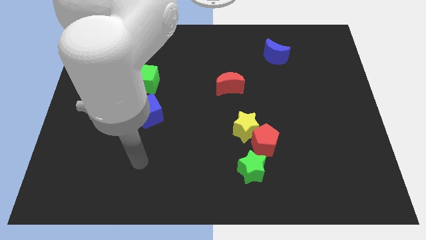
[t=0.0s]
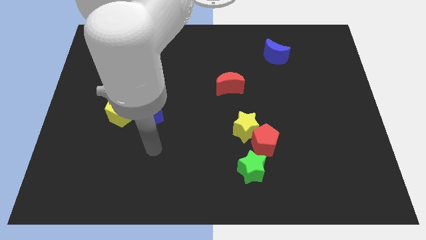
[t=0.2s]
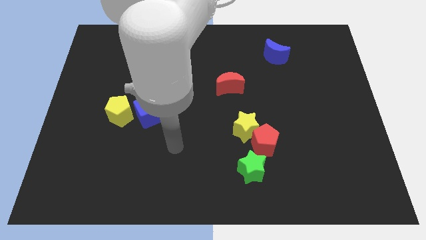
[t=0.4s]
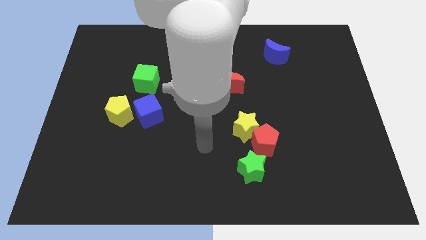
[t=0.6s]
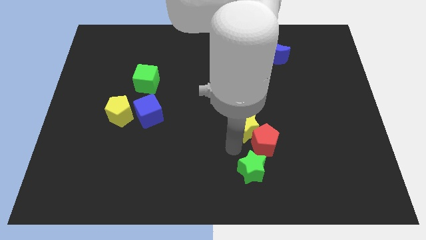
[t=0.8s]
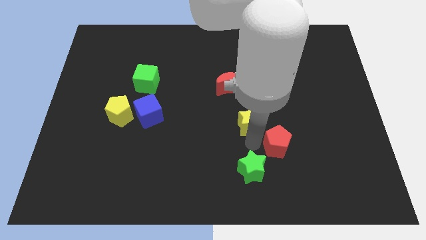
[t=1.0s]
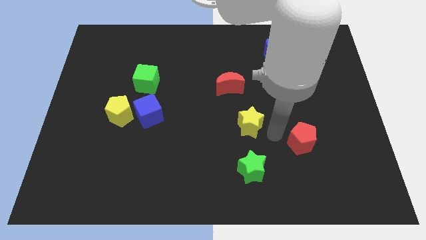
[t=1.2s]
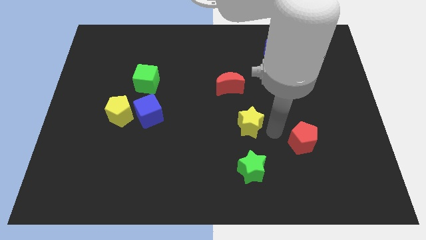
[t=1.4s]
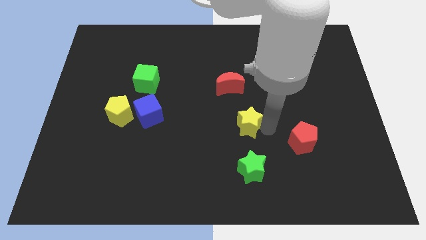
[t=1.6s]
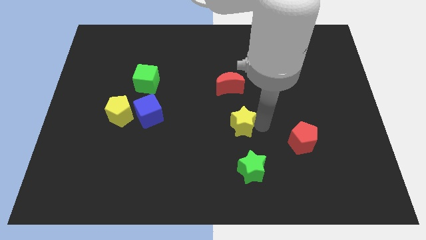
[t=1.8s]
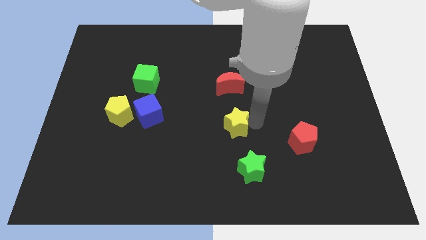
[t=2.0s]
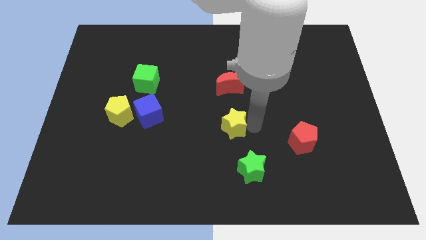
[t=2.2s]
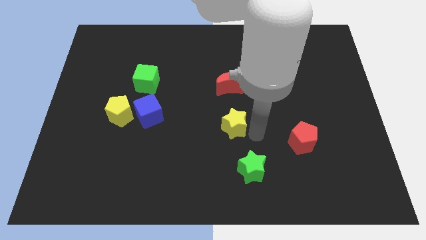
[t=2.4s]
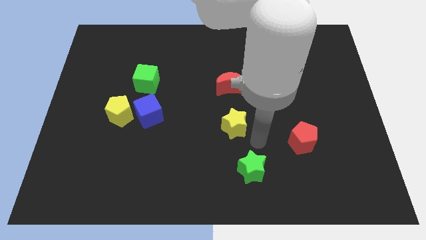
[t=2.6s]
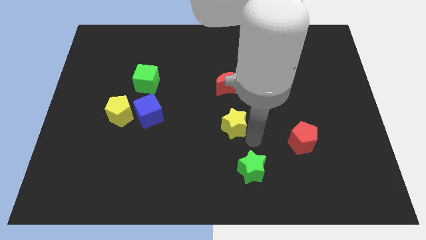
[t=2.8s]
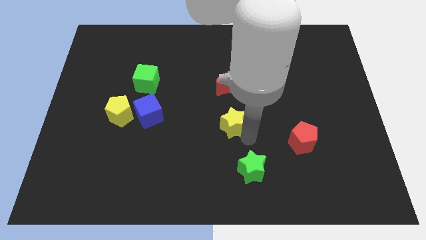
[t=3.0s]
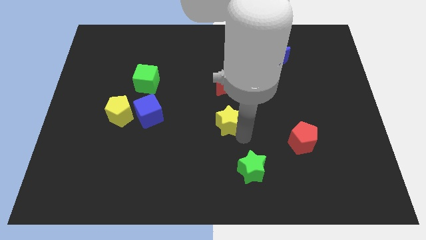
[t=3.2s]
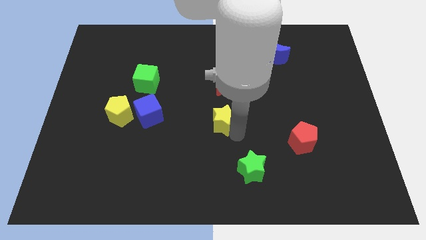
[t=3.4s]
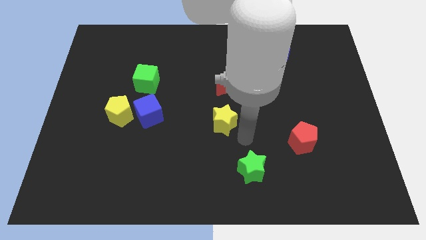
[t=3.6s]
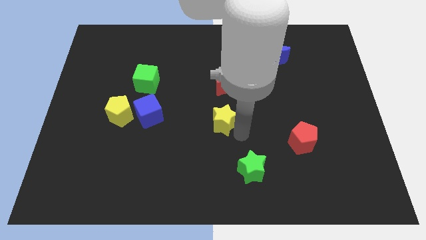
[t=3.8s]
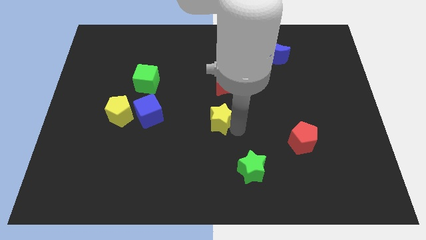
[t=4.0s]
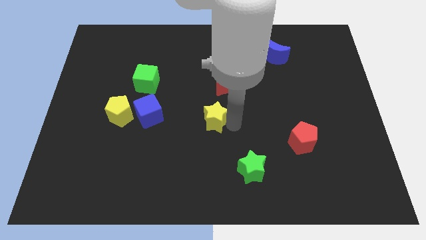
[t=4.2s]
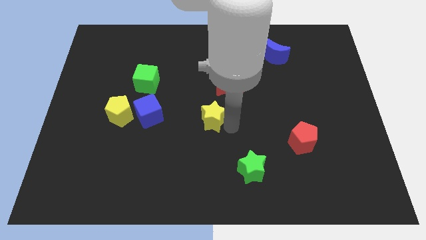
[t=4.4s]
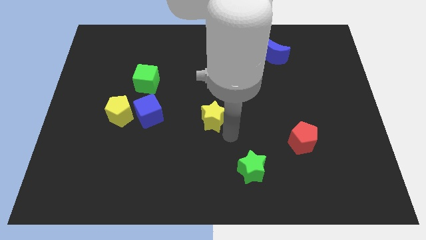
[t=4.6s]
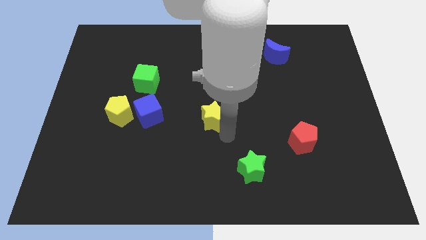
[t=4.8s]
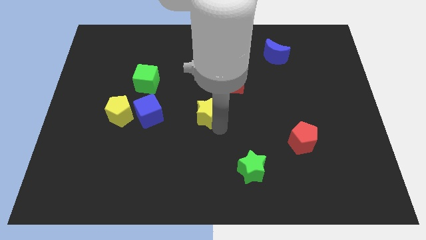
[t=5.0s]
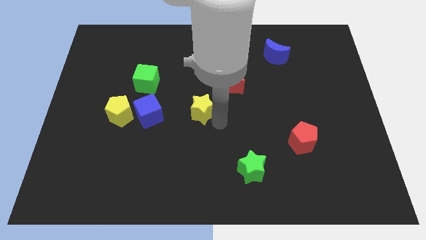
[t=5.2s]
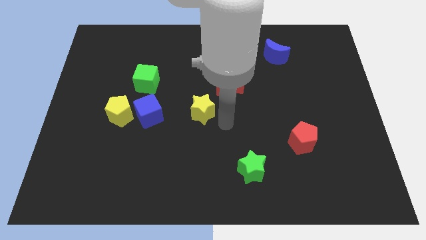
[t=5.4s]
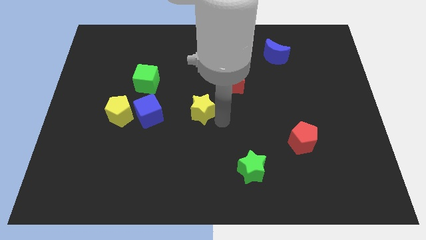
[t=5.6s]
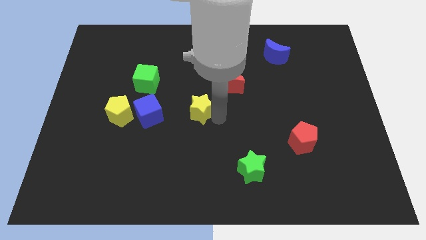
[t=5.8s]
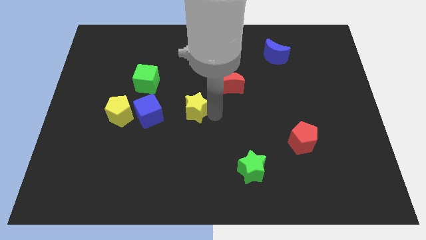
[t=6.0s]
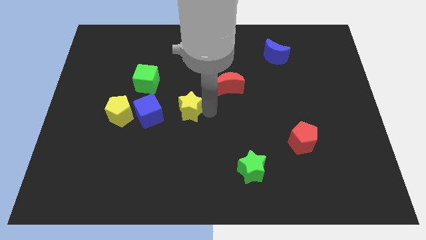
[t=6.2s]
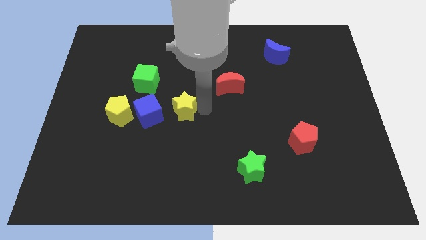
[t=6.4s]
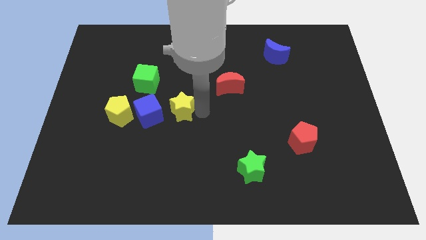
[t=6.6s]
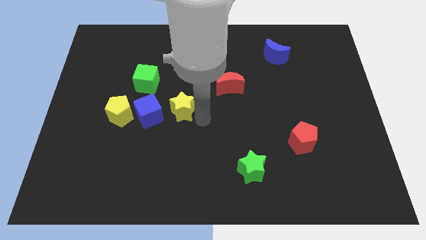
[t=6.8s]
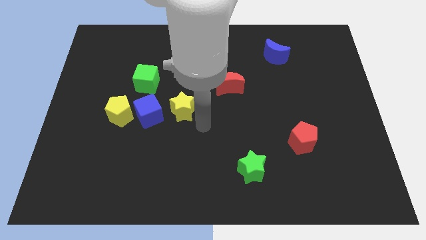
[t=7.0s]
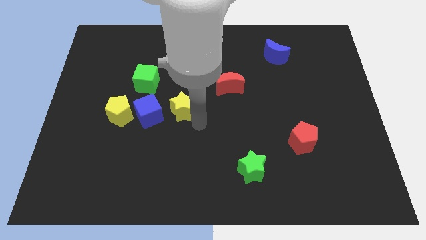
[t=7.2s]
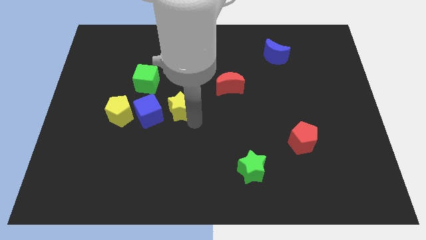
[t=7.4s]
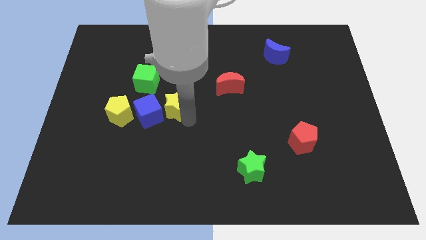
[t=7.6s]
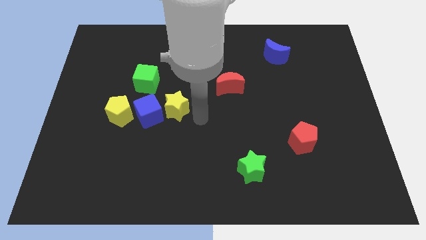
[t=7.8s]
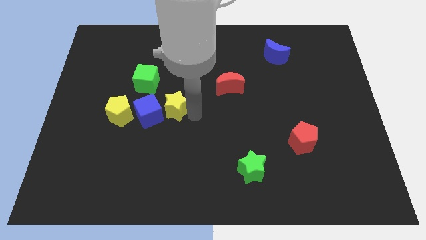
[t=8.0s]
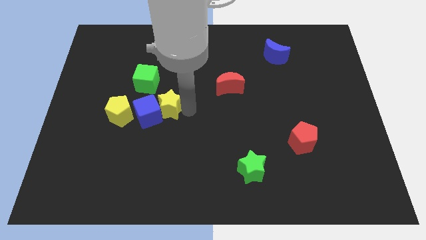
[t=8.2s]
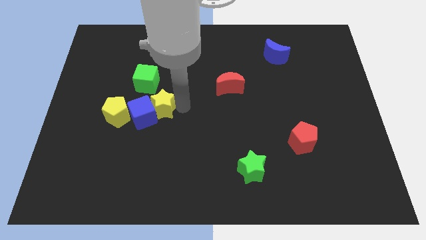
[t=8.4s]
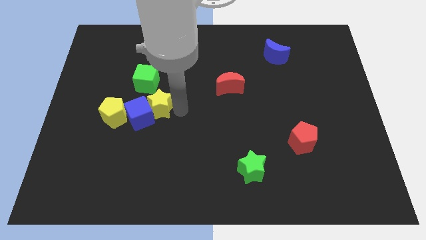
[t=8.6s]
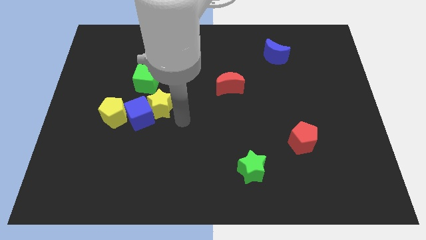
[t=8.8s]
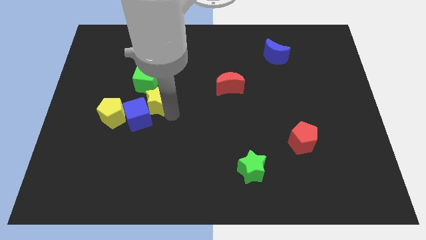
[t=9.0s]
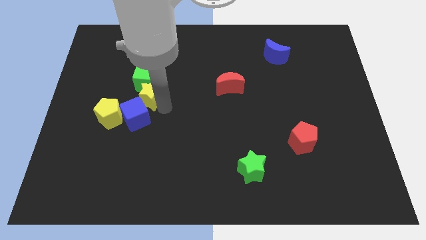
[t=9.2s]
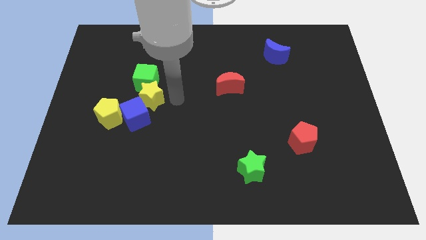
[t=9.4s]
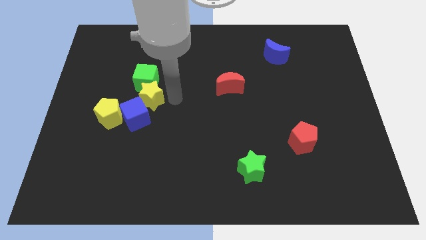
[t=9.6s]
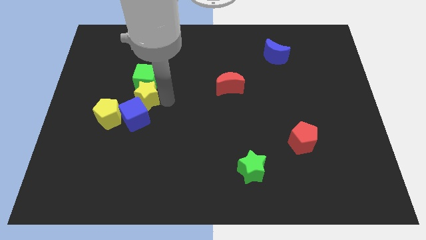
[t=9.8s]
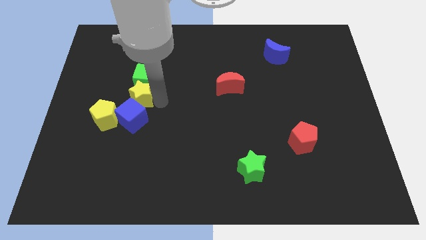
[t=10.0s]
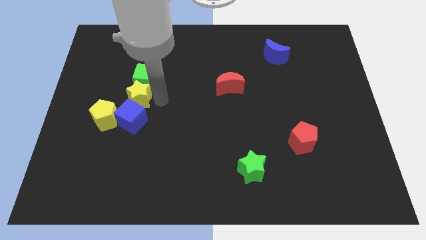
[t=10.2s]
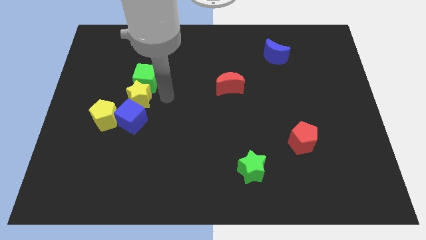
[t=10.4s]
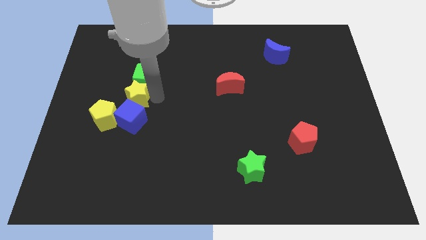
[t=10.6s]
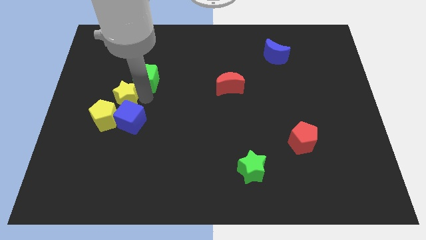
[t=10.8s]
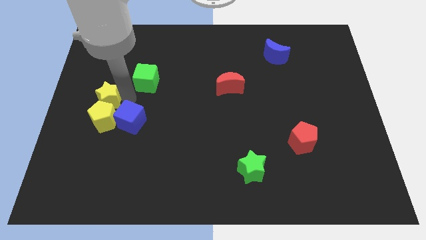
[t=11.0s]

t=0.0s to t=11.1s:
move the yellow star to the left side

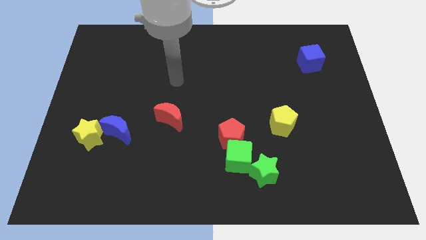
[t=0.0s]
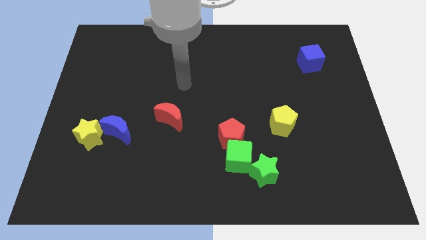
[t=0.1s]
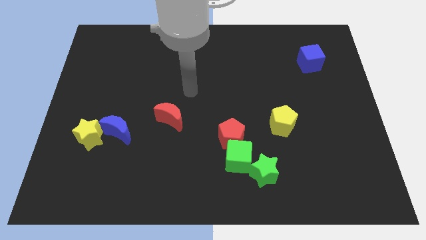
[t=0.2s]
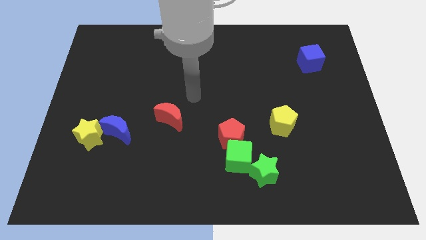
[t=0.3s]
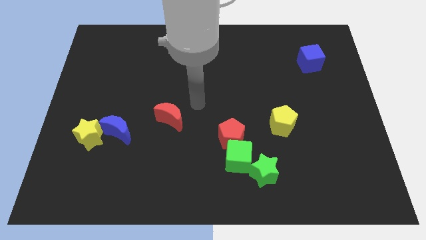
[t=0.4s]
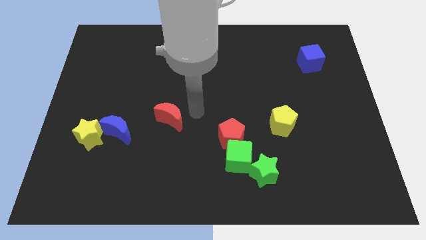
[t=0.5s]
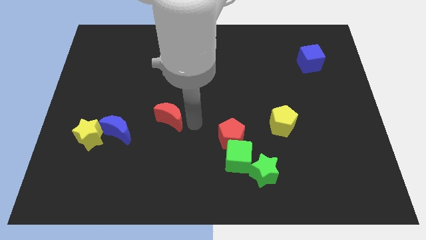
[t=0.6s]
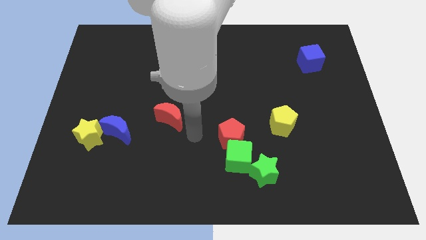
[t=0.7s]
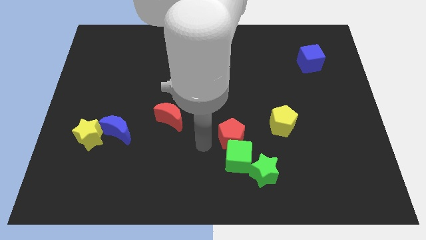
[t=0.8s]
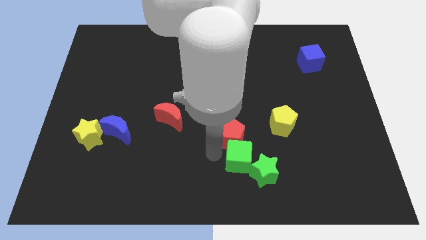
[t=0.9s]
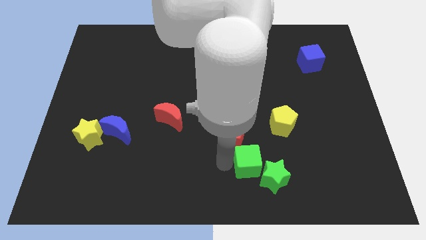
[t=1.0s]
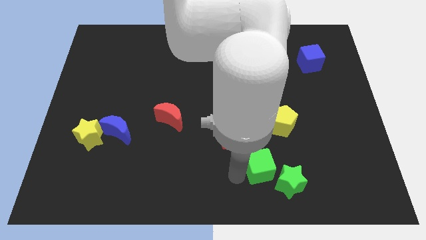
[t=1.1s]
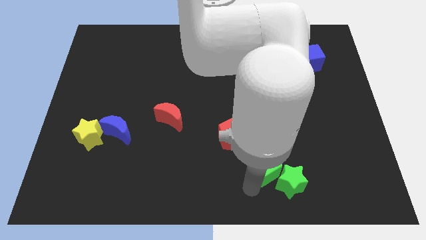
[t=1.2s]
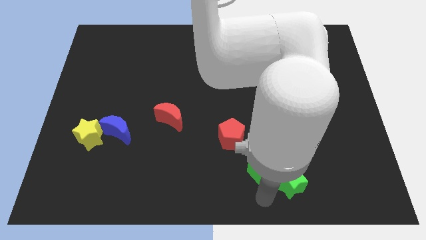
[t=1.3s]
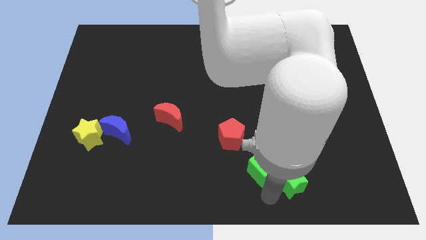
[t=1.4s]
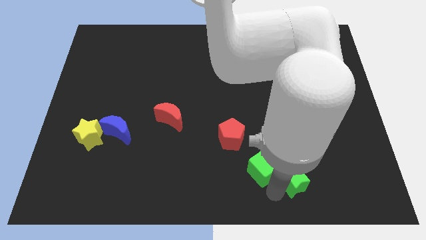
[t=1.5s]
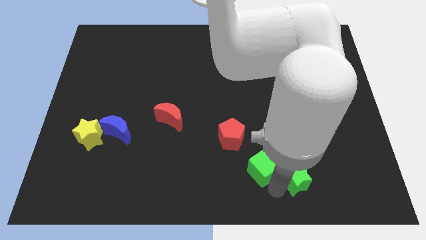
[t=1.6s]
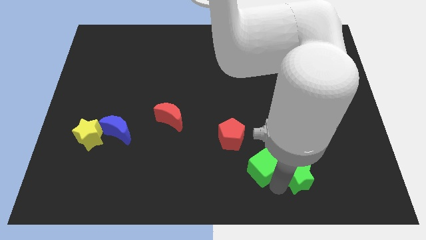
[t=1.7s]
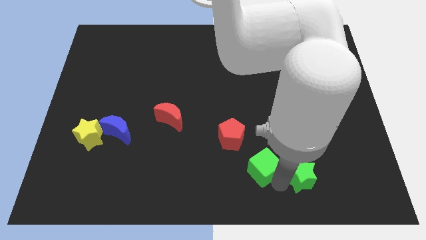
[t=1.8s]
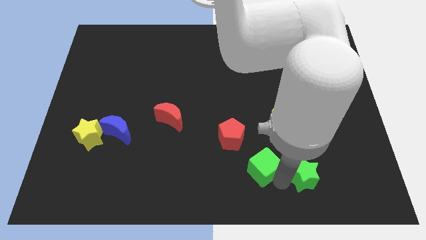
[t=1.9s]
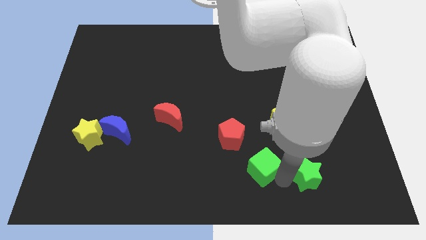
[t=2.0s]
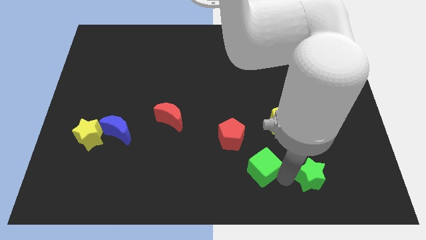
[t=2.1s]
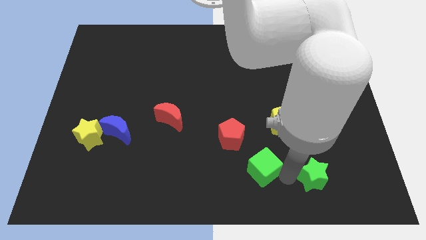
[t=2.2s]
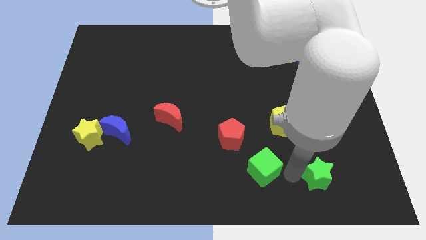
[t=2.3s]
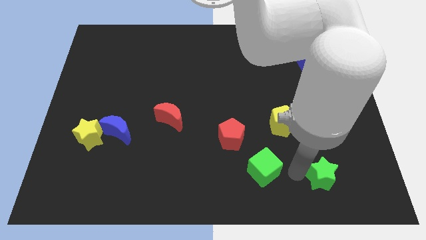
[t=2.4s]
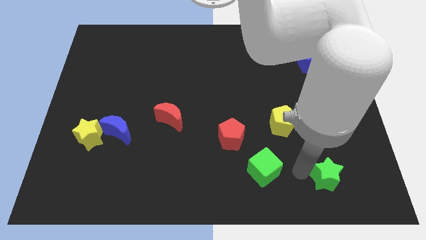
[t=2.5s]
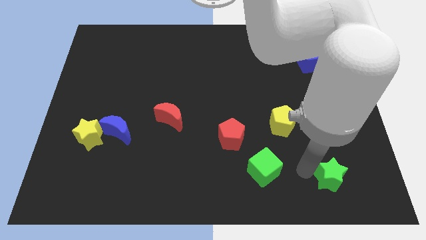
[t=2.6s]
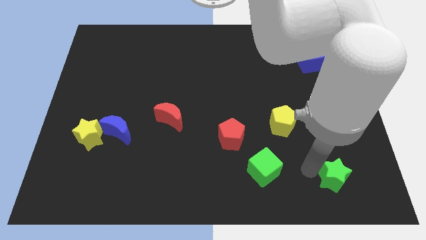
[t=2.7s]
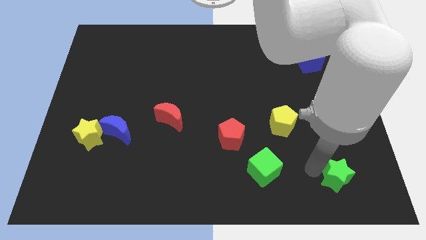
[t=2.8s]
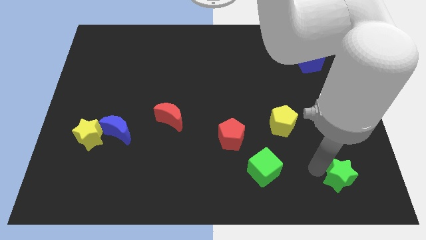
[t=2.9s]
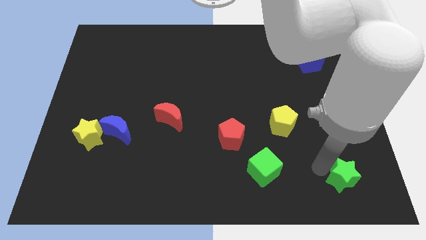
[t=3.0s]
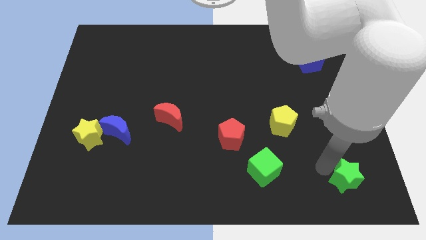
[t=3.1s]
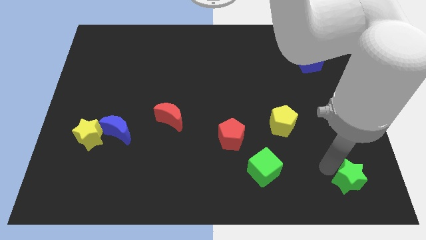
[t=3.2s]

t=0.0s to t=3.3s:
push the green star to the bottom right
